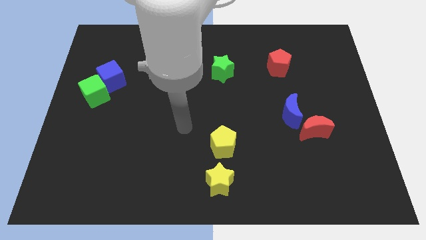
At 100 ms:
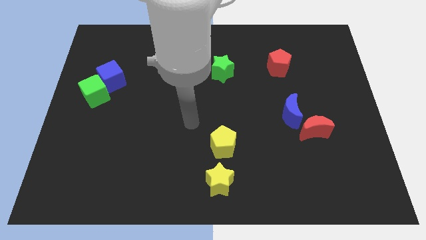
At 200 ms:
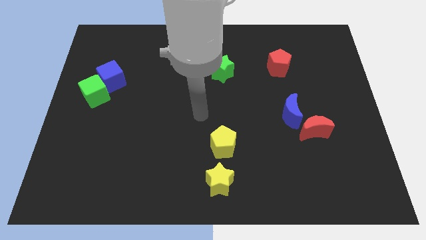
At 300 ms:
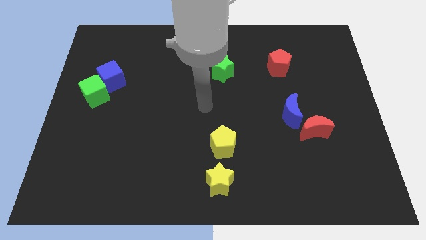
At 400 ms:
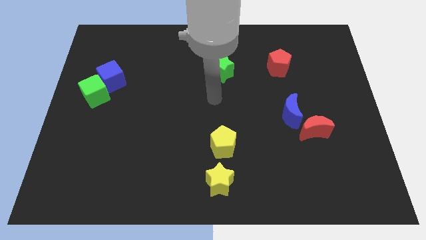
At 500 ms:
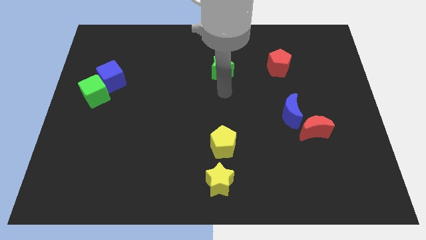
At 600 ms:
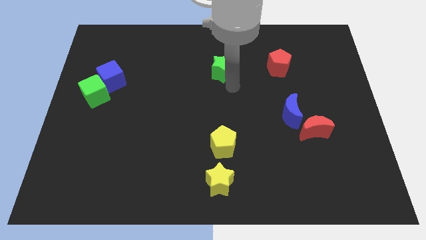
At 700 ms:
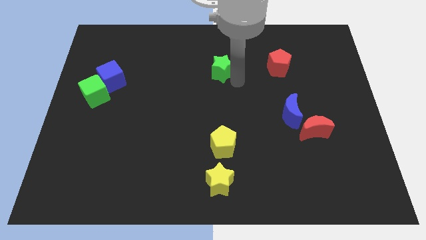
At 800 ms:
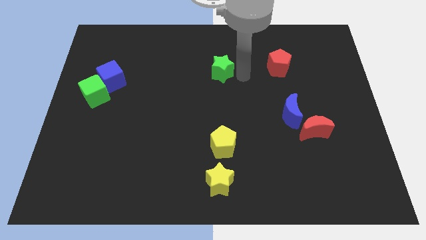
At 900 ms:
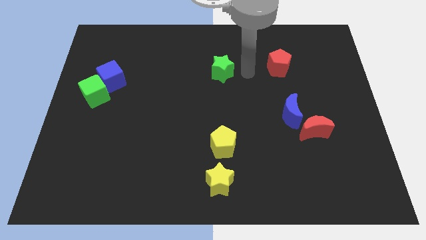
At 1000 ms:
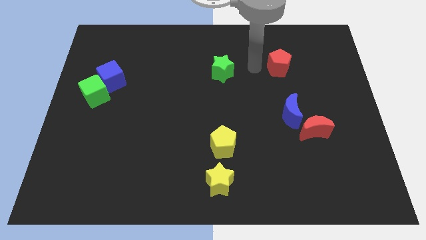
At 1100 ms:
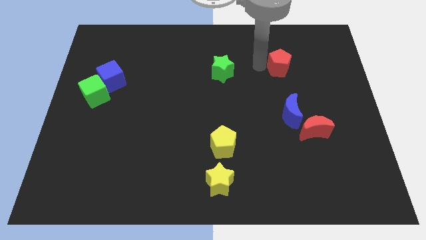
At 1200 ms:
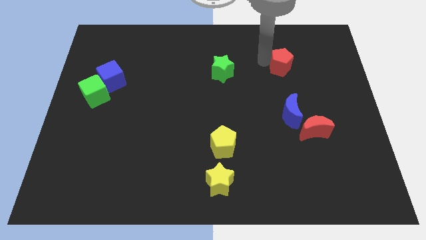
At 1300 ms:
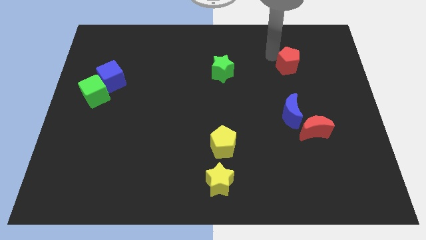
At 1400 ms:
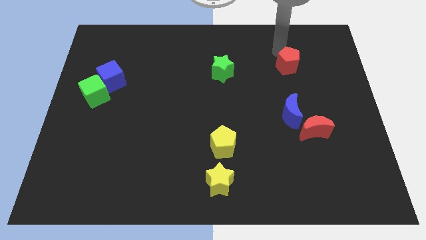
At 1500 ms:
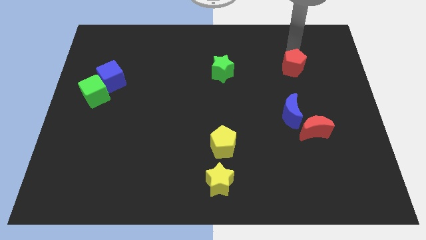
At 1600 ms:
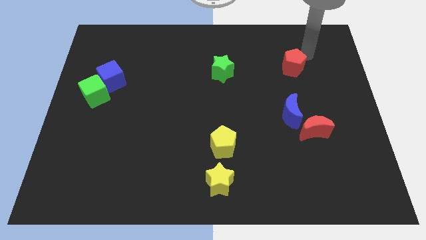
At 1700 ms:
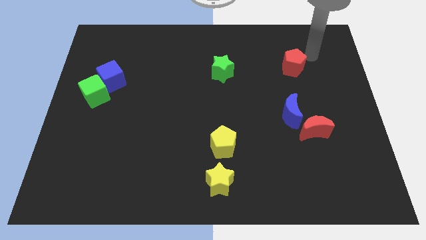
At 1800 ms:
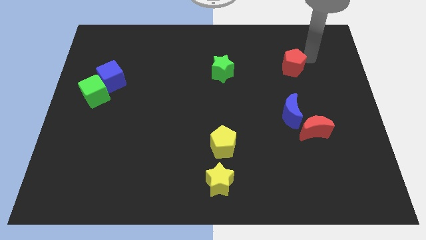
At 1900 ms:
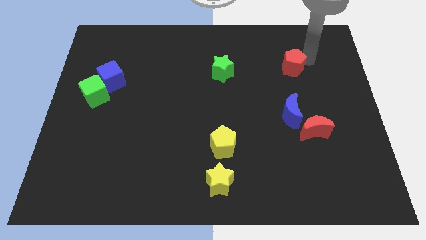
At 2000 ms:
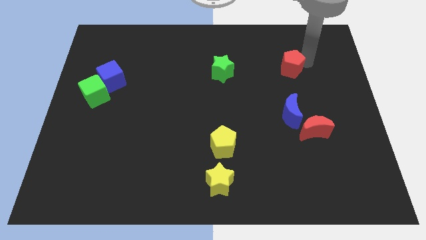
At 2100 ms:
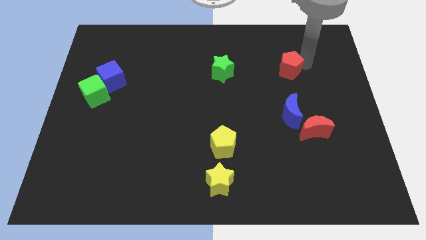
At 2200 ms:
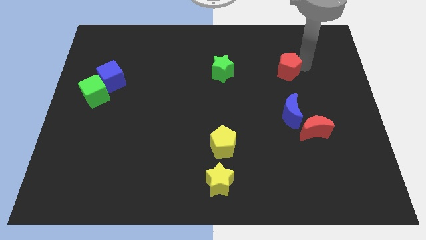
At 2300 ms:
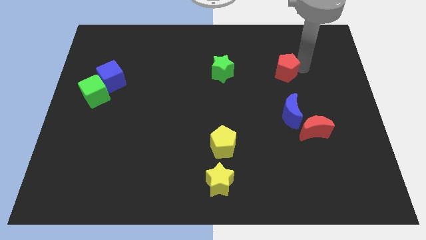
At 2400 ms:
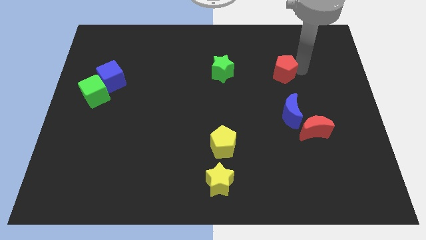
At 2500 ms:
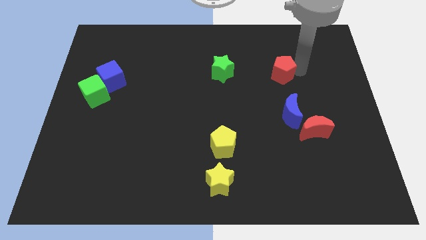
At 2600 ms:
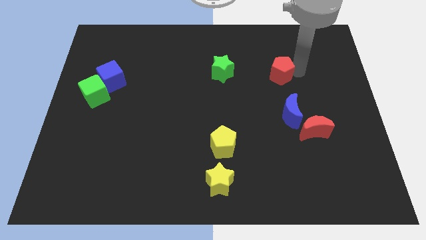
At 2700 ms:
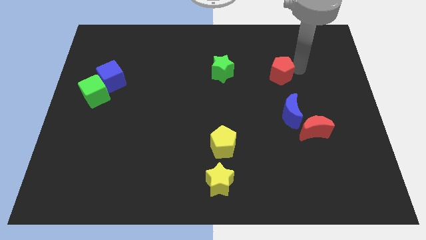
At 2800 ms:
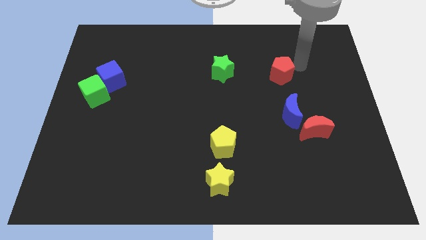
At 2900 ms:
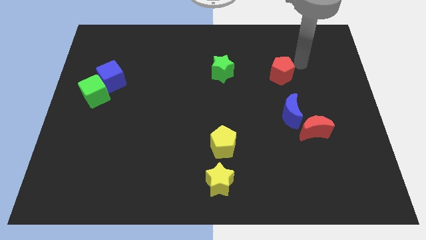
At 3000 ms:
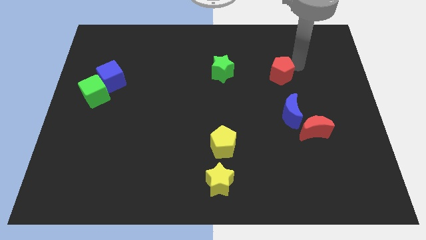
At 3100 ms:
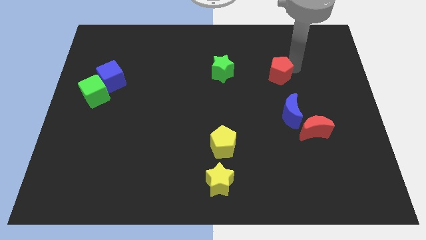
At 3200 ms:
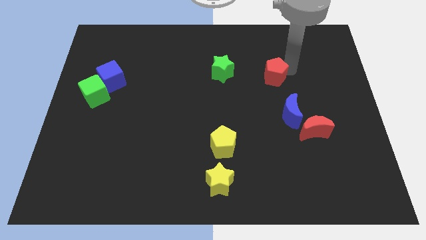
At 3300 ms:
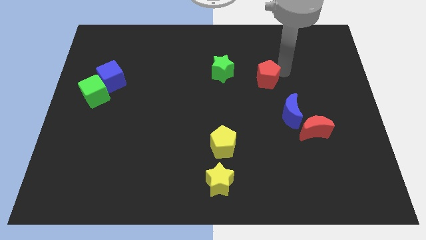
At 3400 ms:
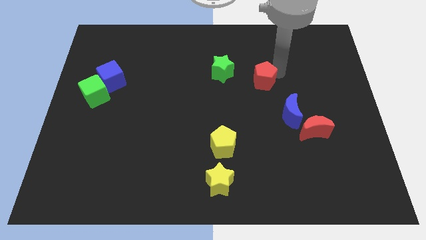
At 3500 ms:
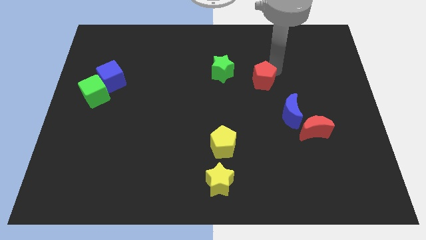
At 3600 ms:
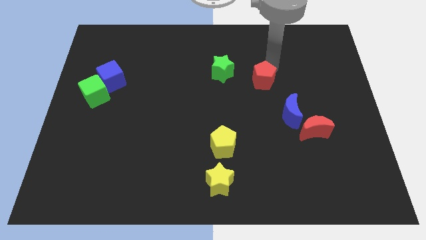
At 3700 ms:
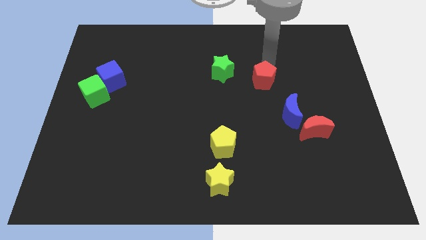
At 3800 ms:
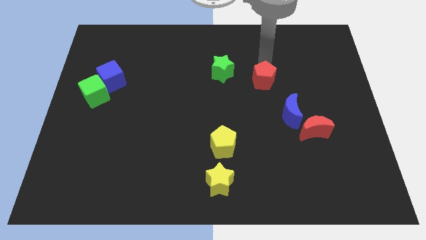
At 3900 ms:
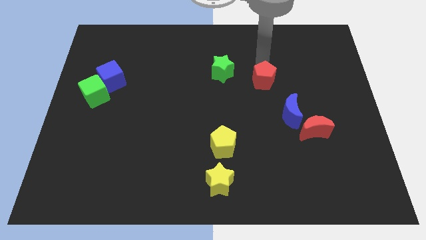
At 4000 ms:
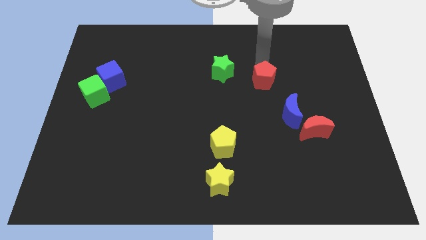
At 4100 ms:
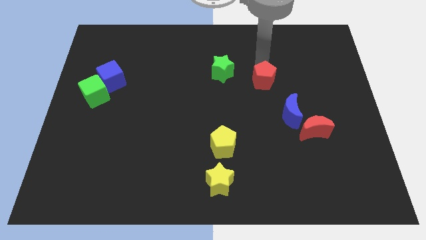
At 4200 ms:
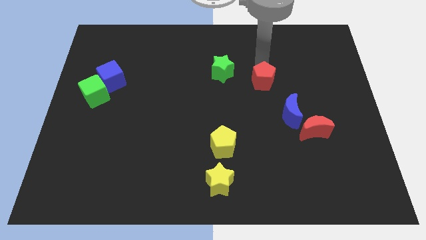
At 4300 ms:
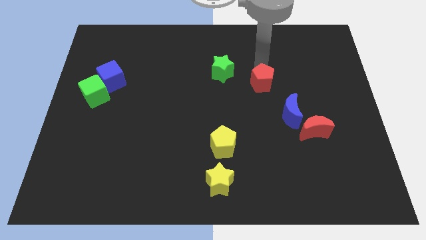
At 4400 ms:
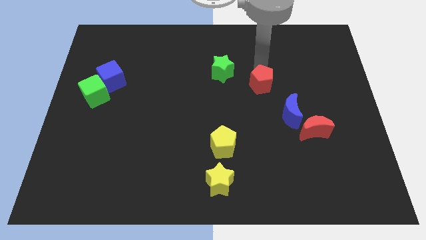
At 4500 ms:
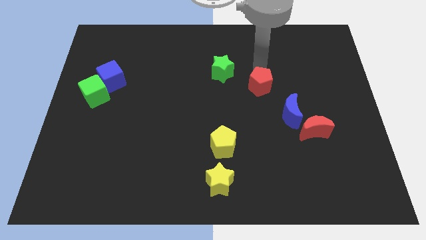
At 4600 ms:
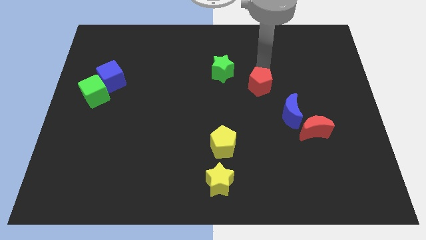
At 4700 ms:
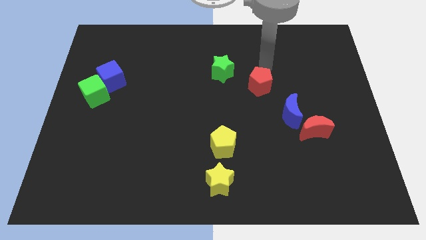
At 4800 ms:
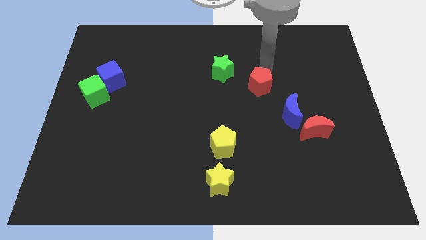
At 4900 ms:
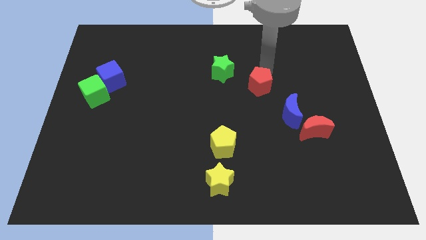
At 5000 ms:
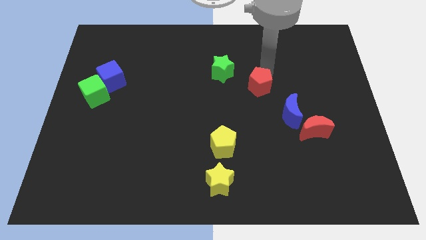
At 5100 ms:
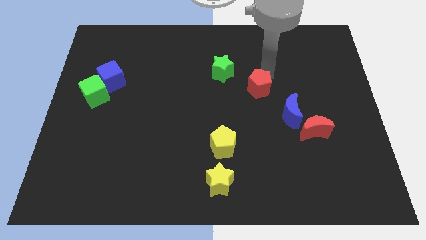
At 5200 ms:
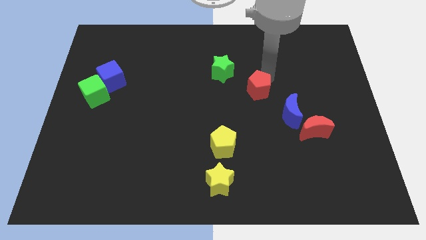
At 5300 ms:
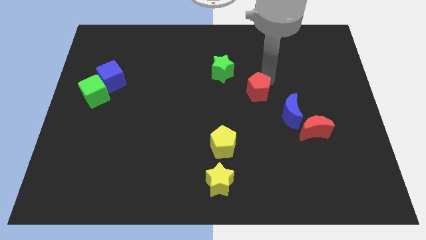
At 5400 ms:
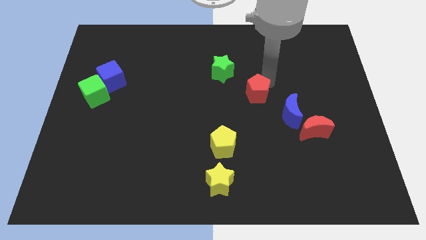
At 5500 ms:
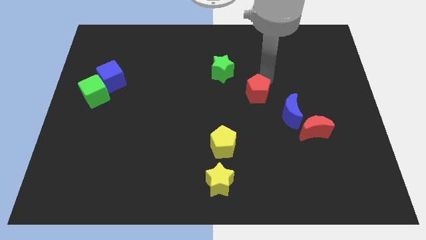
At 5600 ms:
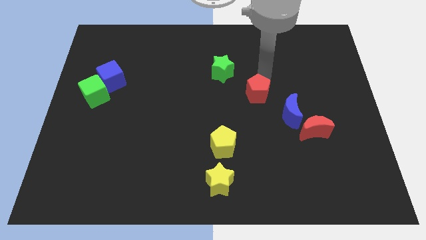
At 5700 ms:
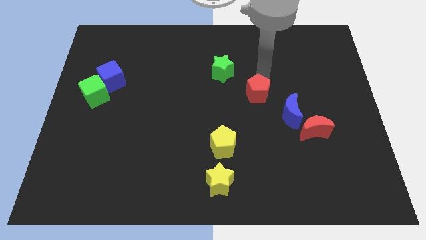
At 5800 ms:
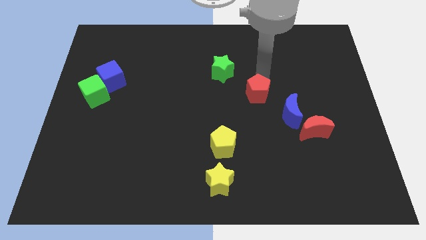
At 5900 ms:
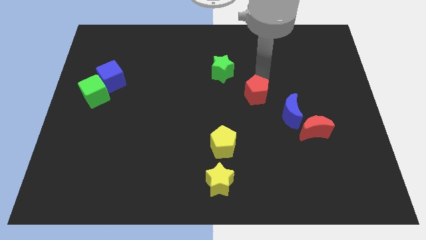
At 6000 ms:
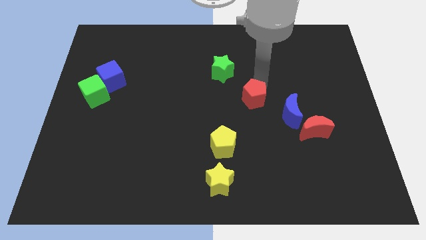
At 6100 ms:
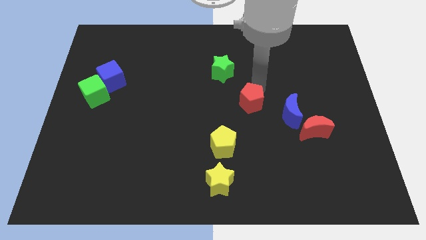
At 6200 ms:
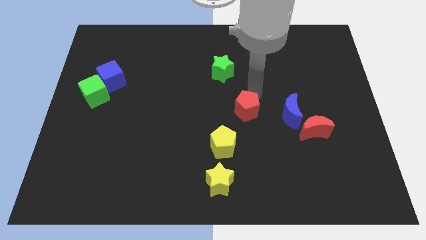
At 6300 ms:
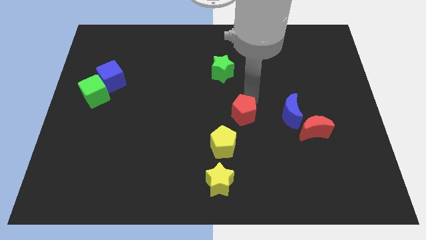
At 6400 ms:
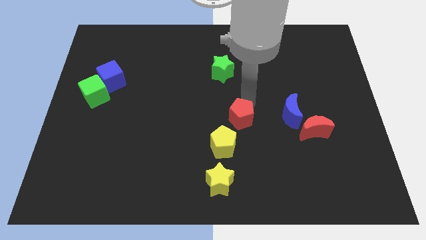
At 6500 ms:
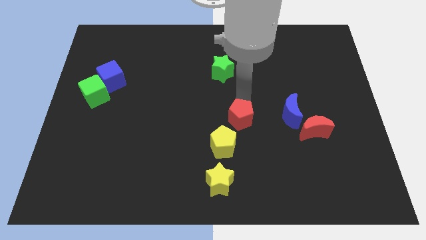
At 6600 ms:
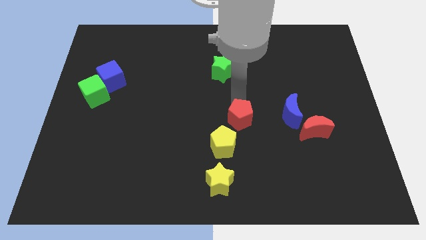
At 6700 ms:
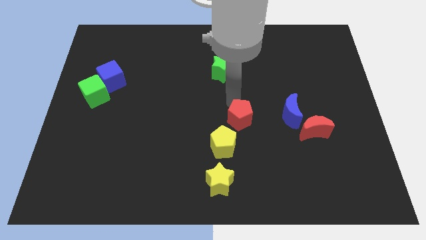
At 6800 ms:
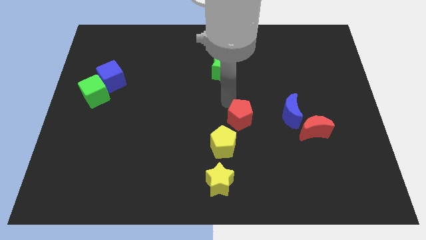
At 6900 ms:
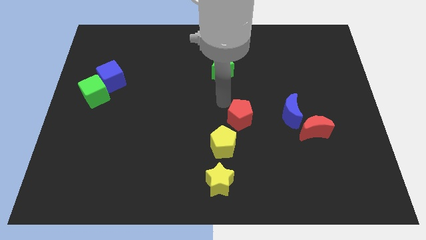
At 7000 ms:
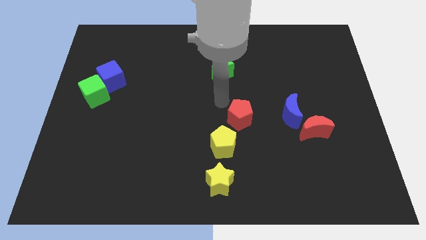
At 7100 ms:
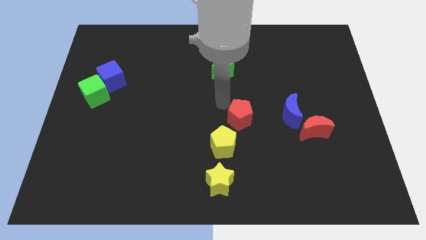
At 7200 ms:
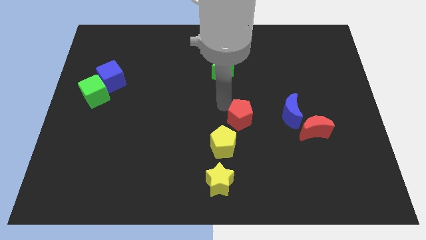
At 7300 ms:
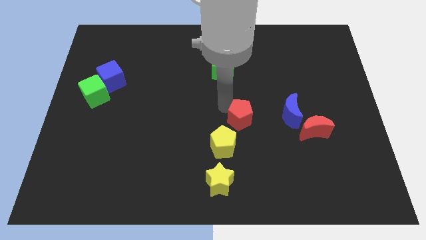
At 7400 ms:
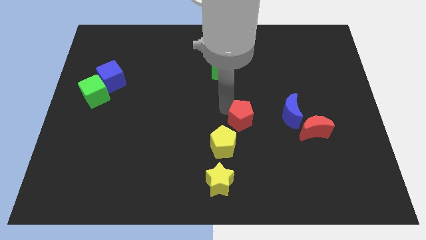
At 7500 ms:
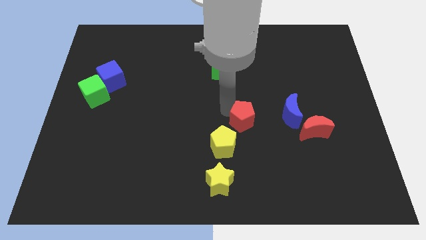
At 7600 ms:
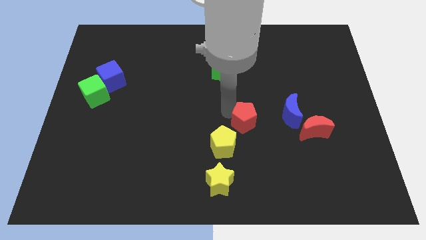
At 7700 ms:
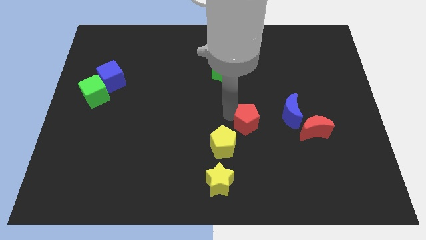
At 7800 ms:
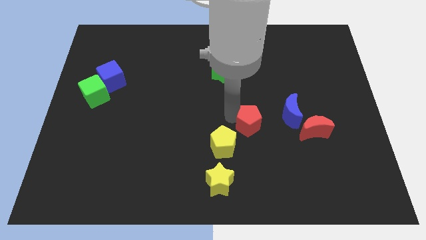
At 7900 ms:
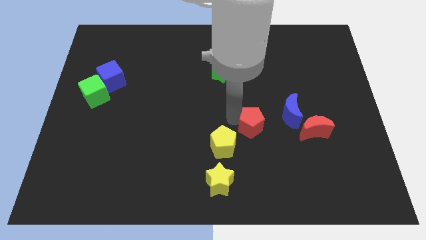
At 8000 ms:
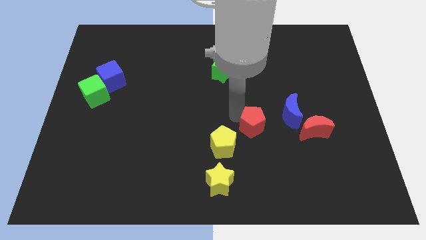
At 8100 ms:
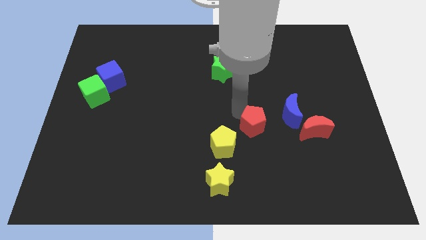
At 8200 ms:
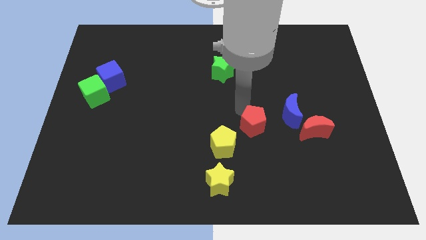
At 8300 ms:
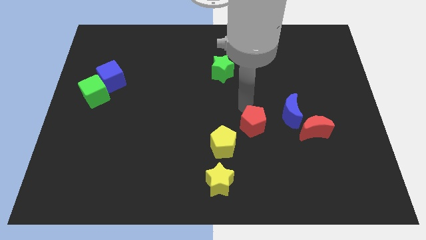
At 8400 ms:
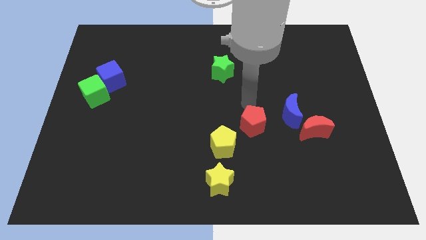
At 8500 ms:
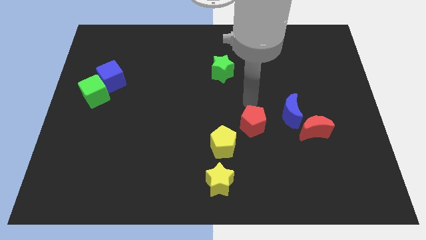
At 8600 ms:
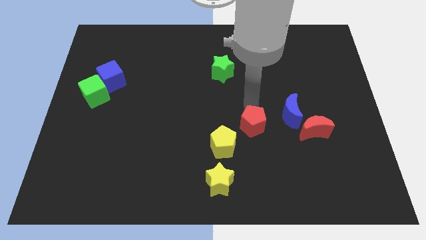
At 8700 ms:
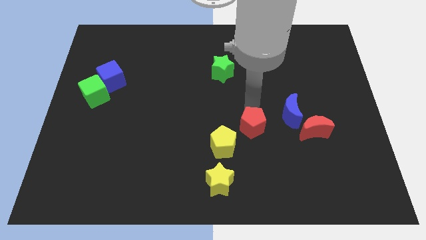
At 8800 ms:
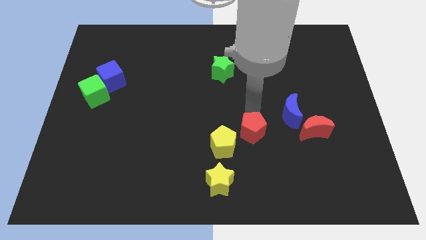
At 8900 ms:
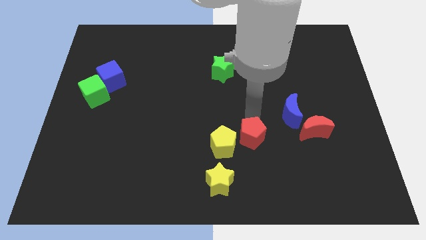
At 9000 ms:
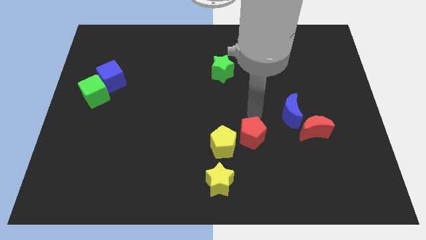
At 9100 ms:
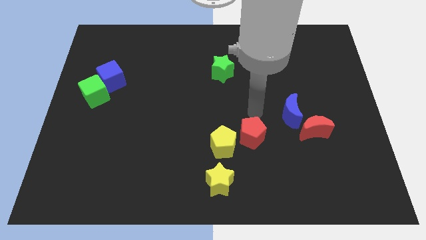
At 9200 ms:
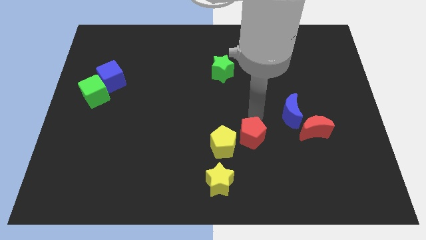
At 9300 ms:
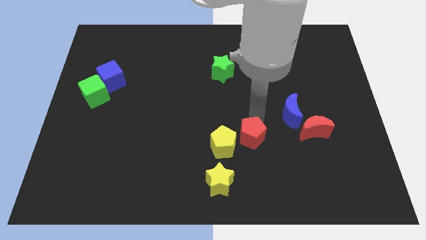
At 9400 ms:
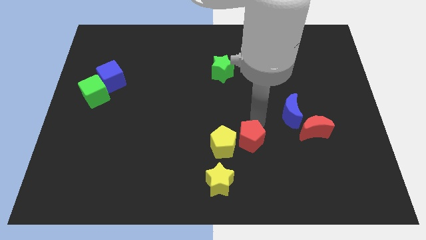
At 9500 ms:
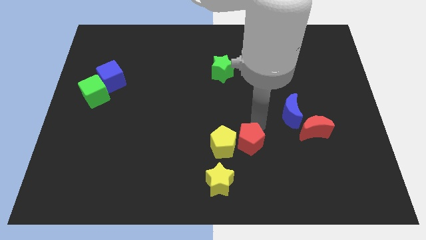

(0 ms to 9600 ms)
push the red pentagon diagonally down and to the right of the yellow pentagon
